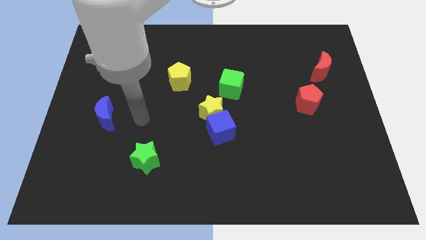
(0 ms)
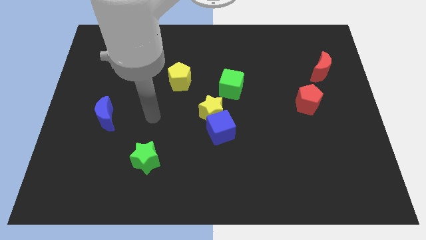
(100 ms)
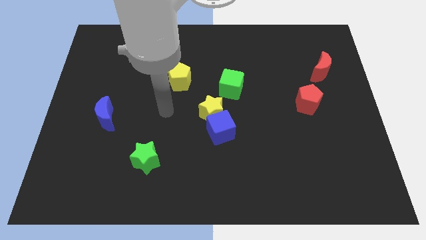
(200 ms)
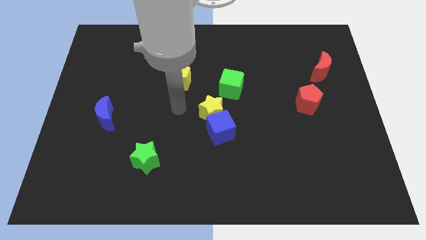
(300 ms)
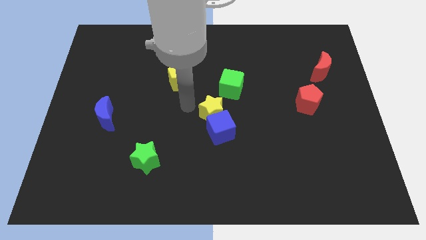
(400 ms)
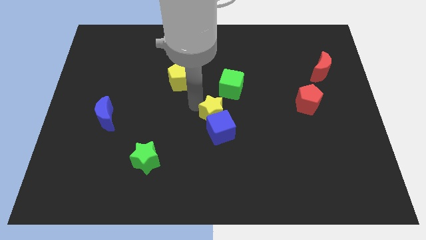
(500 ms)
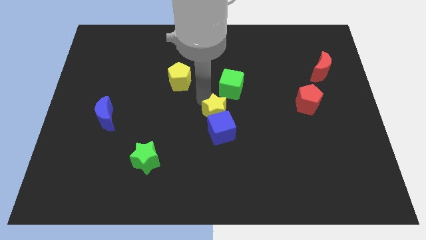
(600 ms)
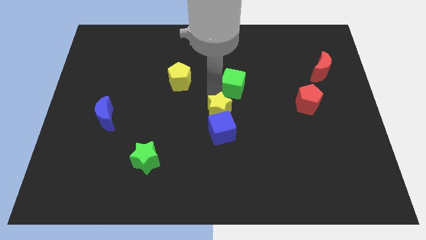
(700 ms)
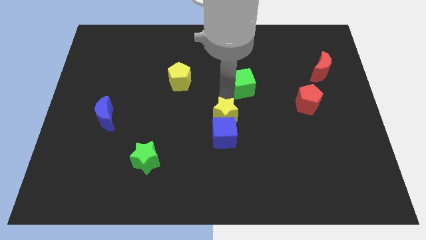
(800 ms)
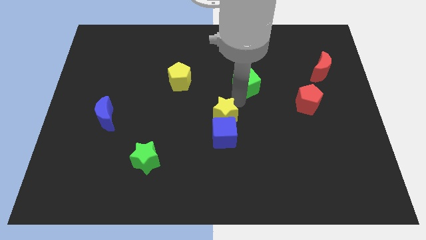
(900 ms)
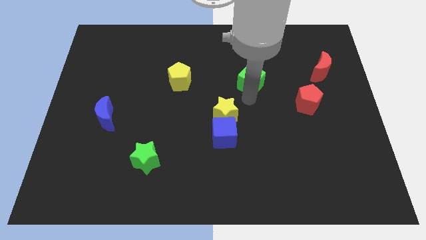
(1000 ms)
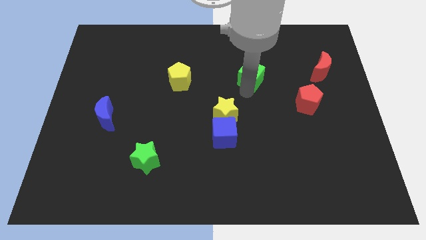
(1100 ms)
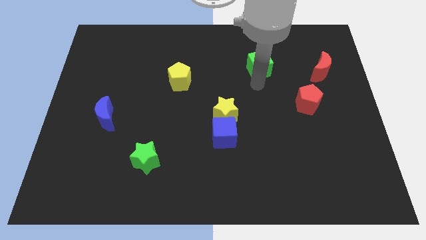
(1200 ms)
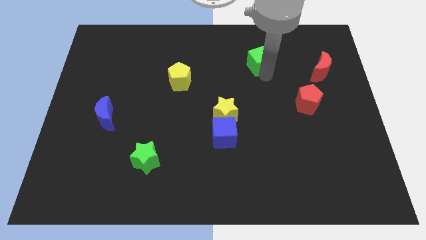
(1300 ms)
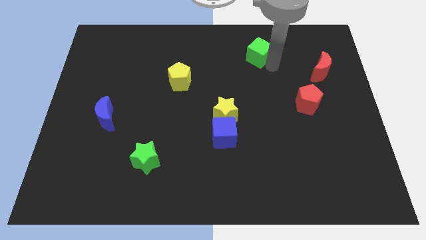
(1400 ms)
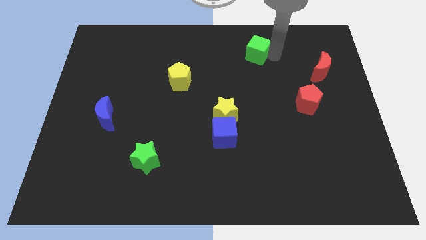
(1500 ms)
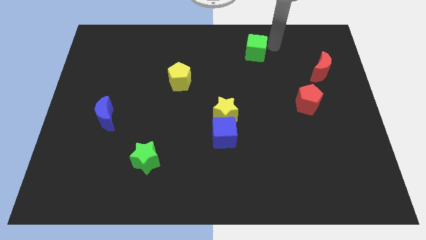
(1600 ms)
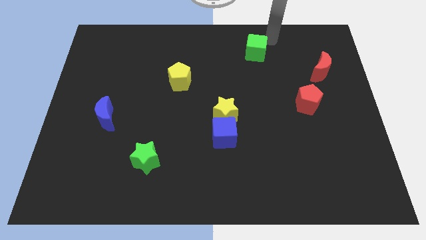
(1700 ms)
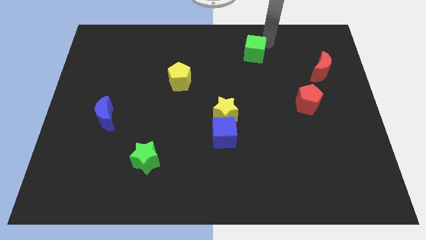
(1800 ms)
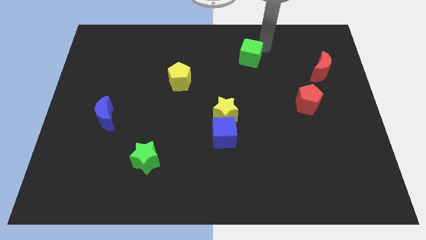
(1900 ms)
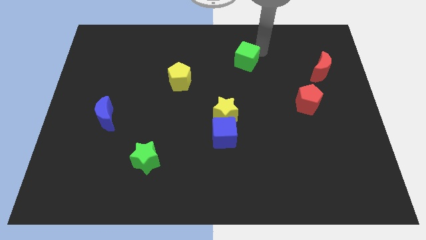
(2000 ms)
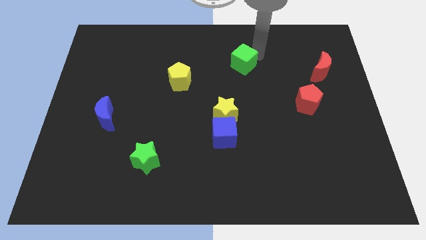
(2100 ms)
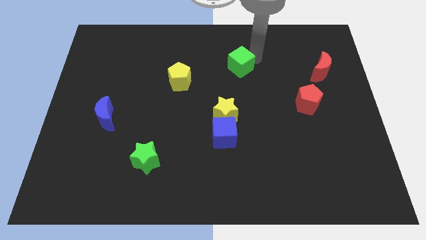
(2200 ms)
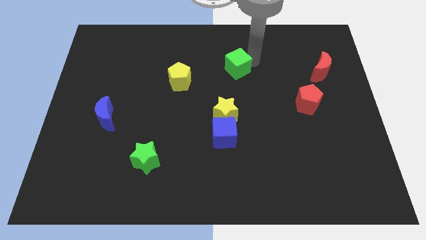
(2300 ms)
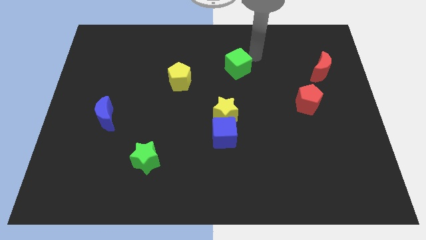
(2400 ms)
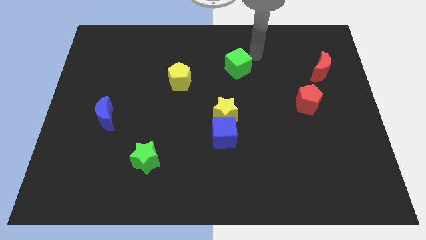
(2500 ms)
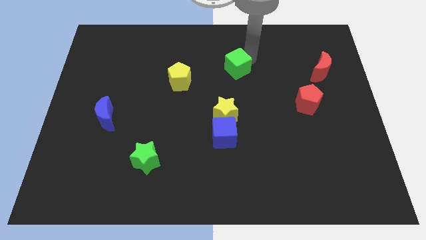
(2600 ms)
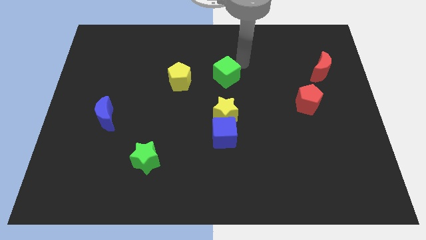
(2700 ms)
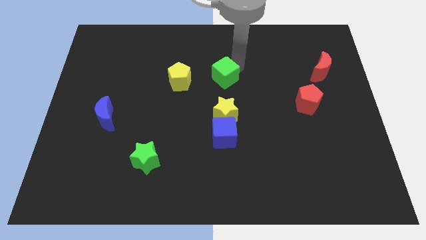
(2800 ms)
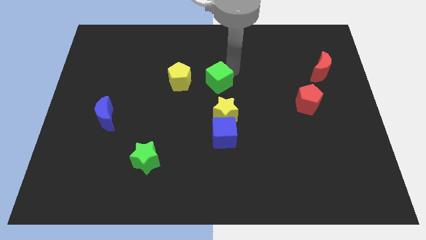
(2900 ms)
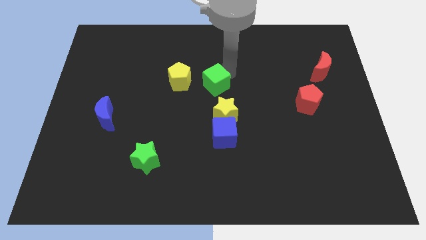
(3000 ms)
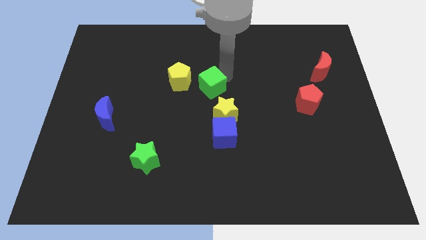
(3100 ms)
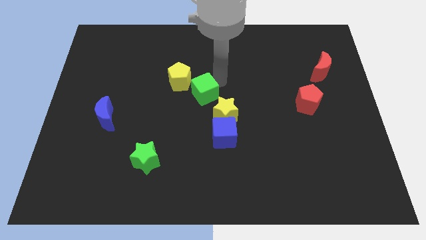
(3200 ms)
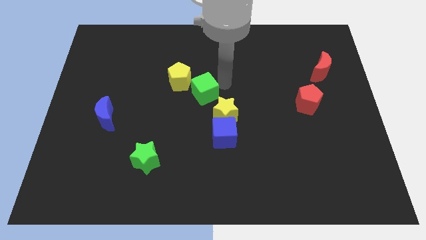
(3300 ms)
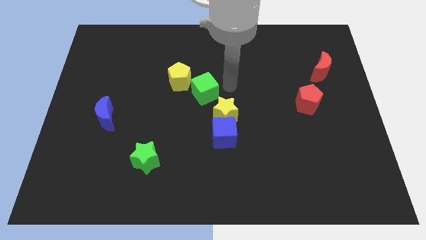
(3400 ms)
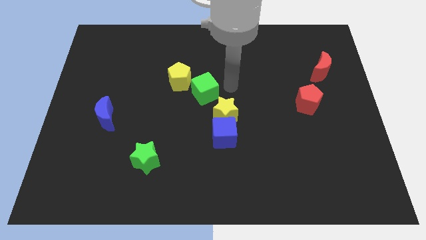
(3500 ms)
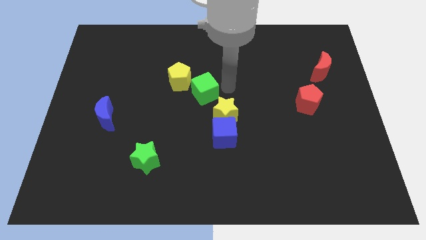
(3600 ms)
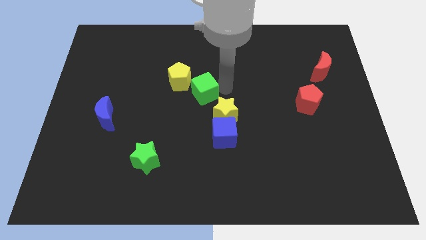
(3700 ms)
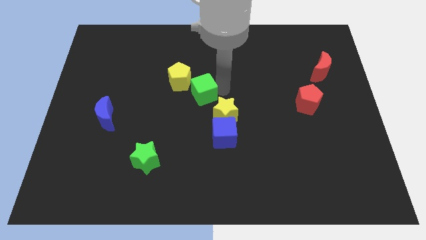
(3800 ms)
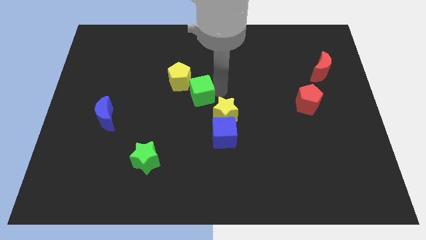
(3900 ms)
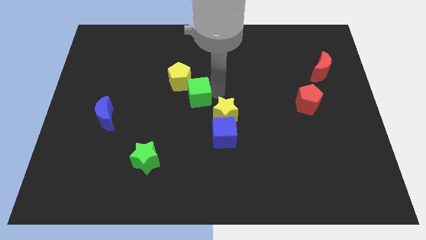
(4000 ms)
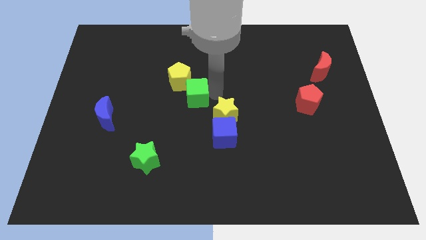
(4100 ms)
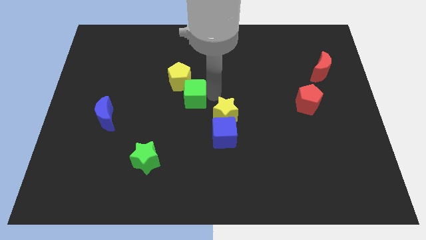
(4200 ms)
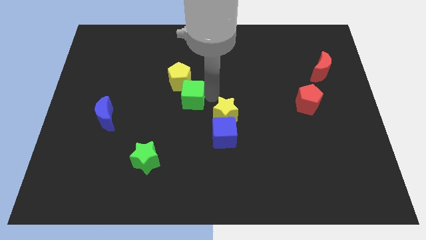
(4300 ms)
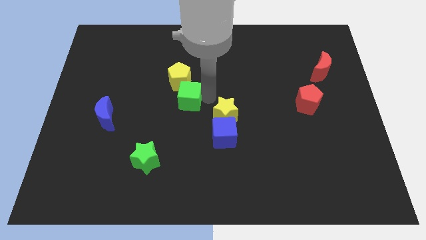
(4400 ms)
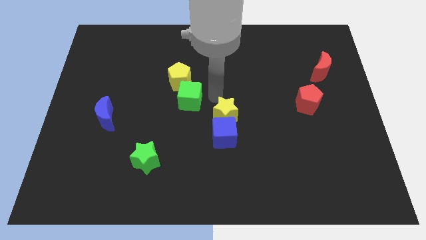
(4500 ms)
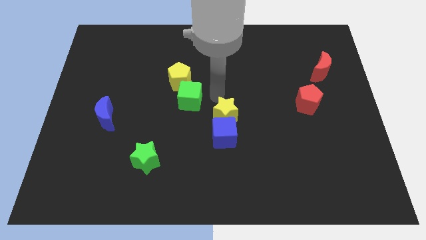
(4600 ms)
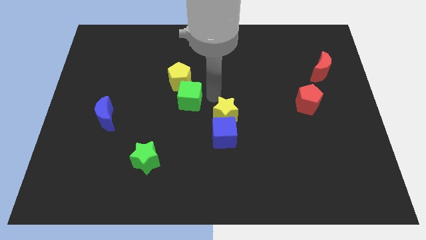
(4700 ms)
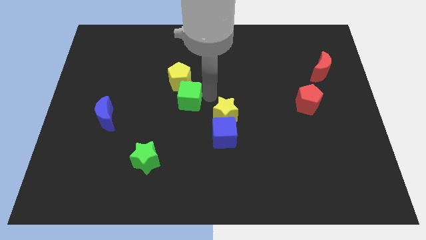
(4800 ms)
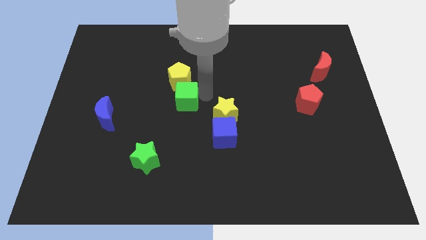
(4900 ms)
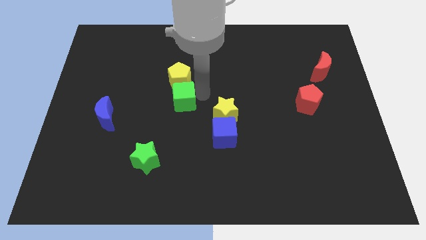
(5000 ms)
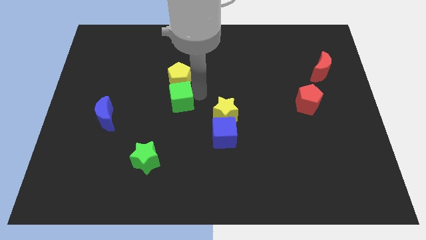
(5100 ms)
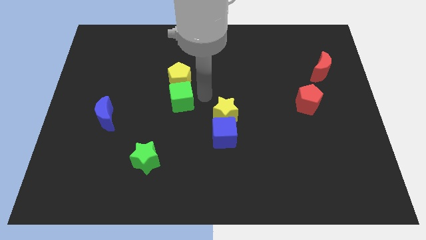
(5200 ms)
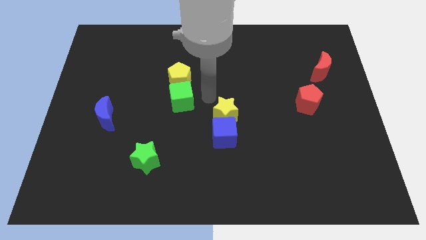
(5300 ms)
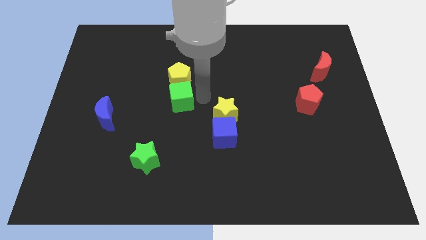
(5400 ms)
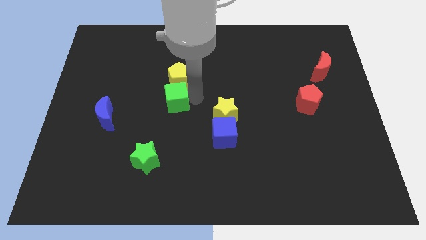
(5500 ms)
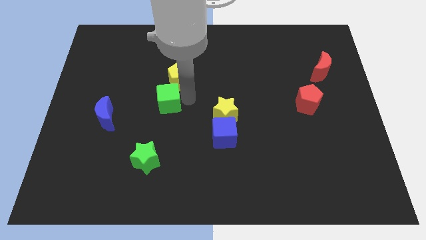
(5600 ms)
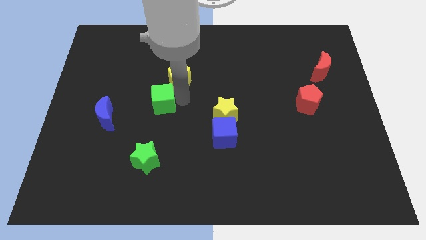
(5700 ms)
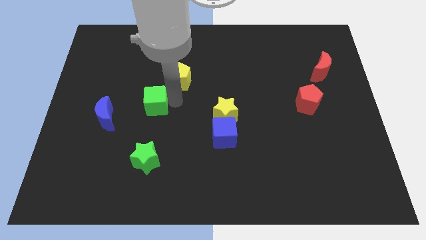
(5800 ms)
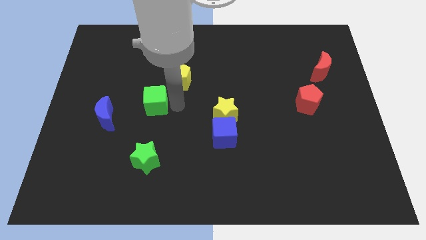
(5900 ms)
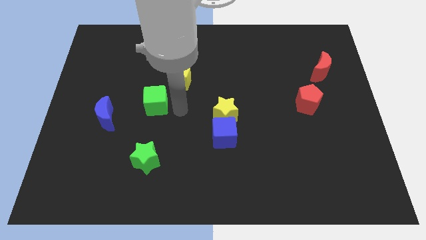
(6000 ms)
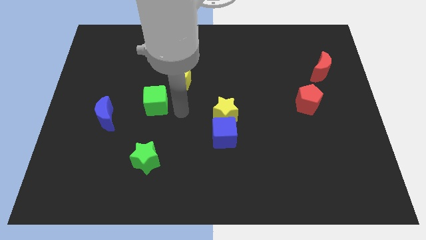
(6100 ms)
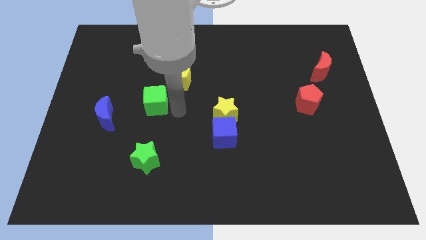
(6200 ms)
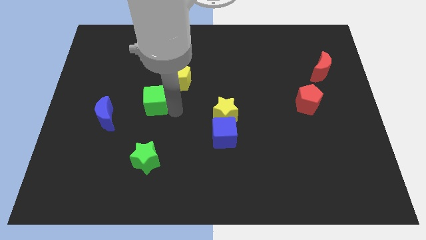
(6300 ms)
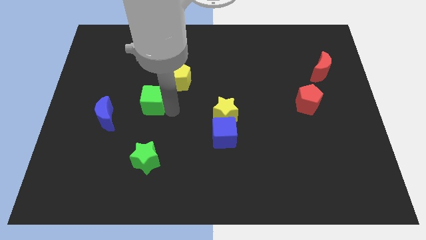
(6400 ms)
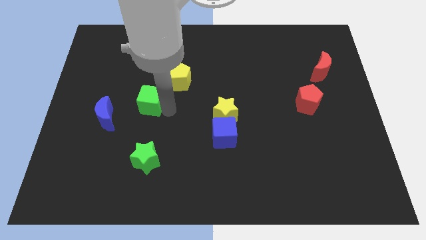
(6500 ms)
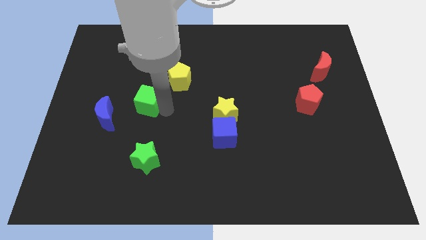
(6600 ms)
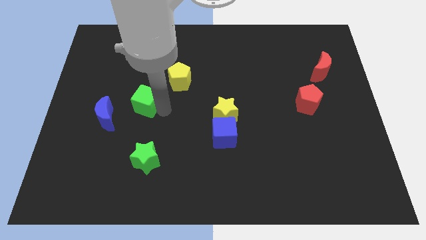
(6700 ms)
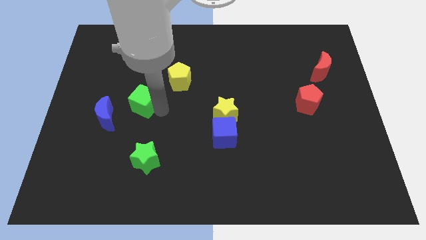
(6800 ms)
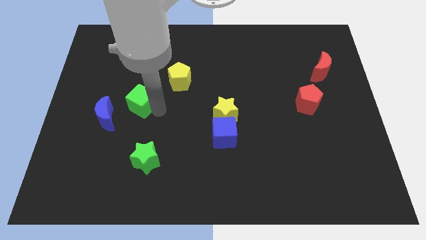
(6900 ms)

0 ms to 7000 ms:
move the green cube left

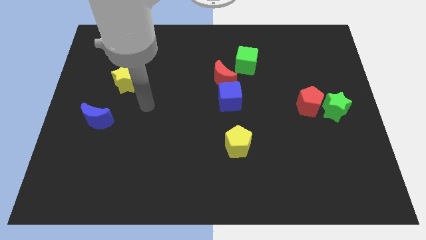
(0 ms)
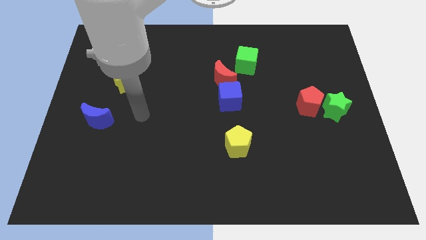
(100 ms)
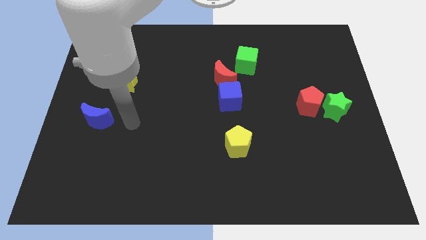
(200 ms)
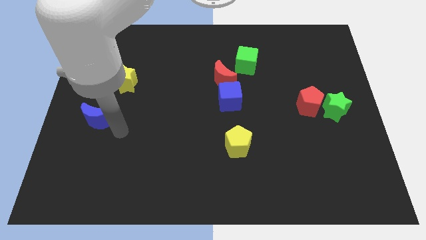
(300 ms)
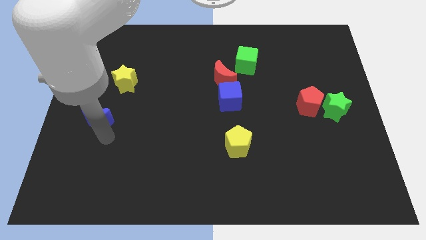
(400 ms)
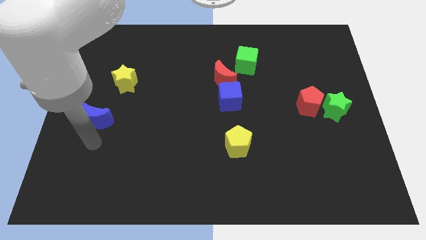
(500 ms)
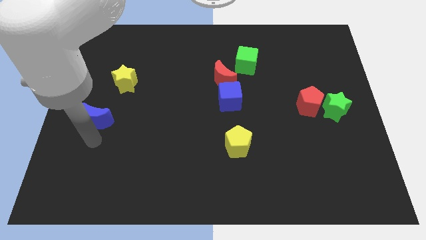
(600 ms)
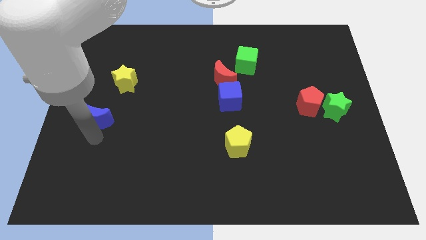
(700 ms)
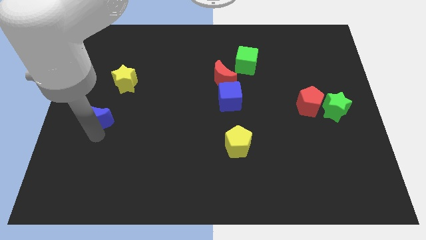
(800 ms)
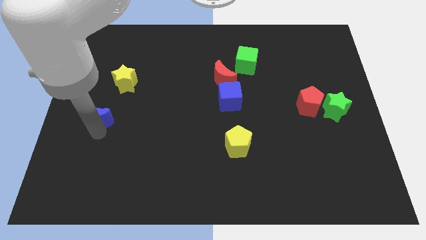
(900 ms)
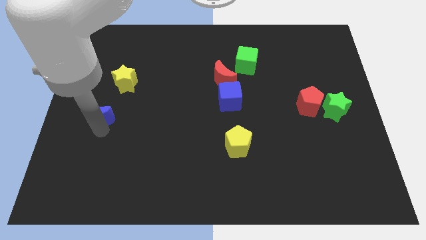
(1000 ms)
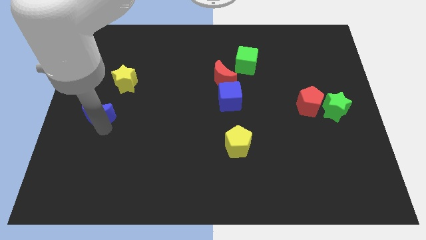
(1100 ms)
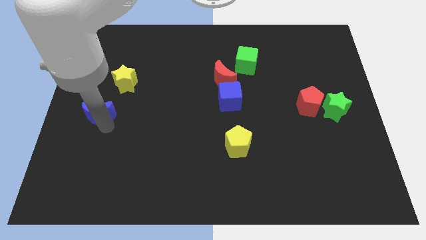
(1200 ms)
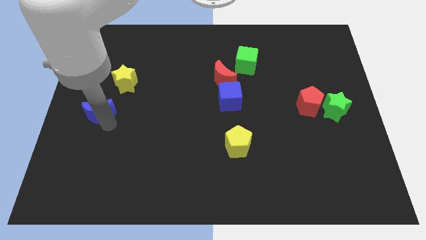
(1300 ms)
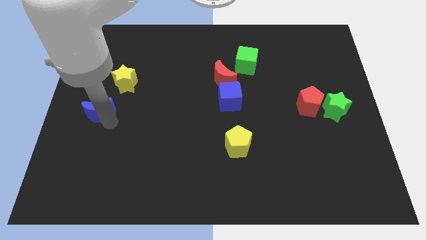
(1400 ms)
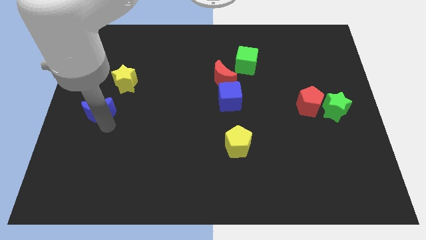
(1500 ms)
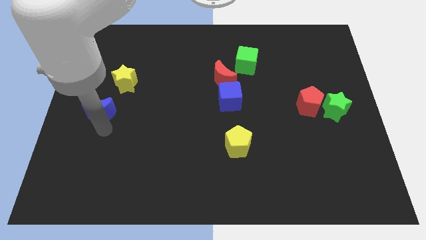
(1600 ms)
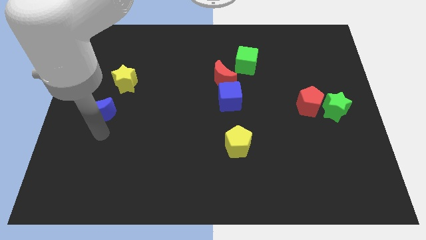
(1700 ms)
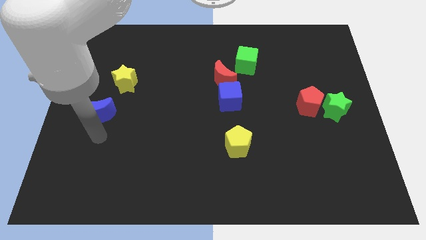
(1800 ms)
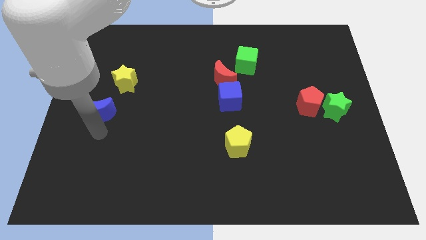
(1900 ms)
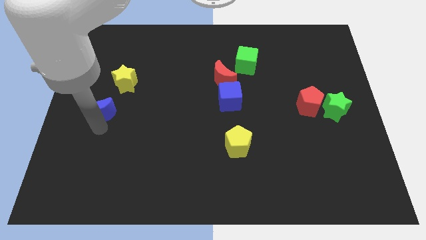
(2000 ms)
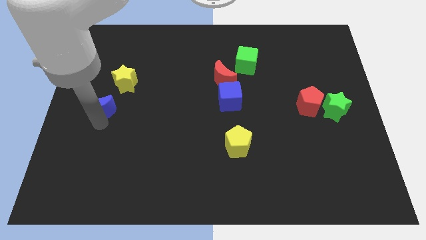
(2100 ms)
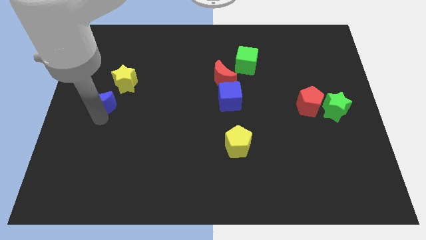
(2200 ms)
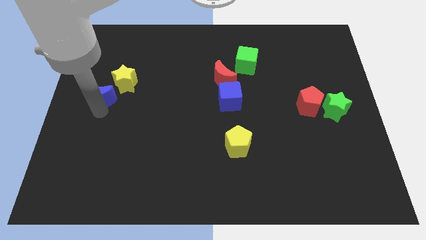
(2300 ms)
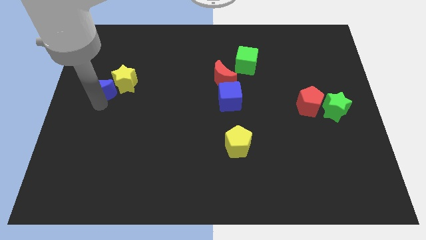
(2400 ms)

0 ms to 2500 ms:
slide the blue moon up a little
